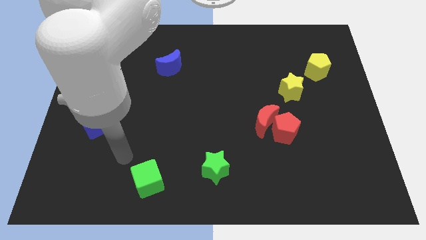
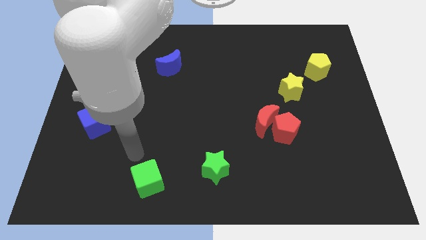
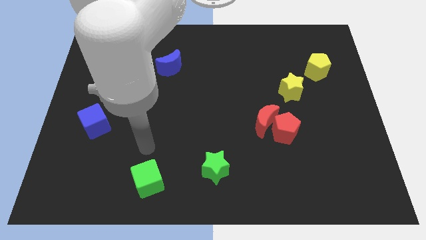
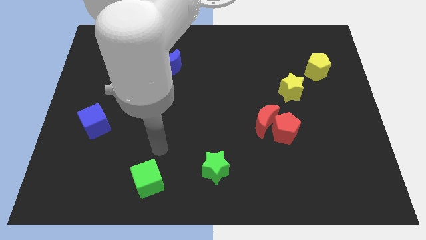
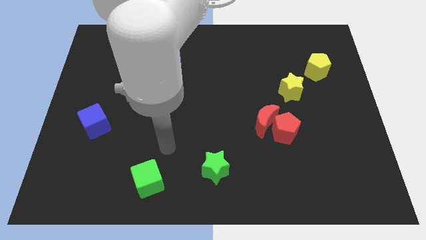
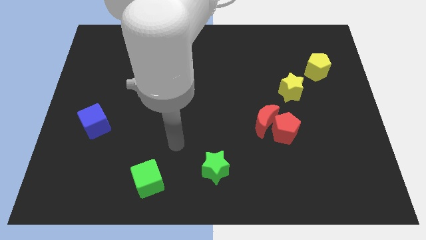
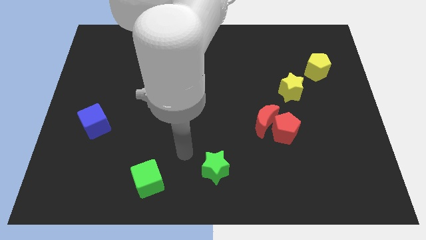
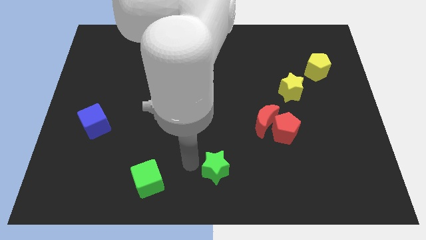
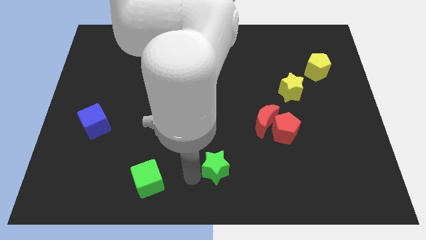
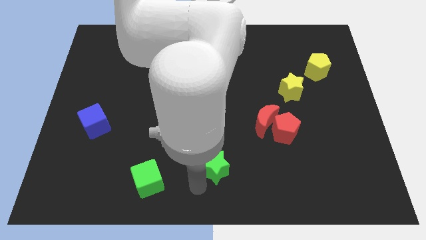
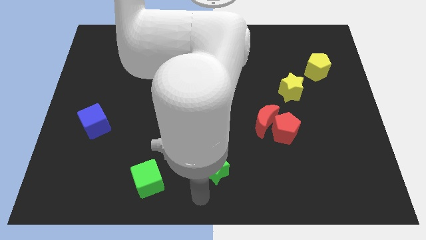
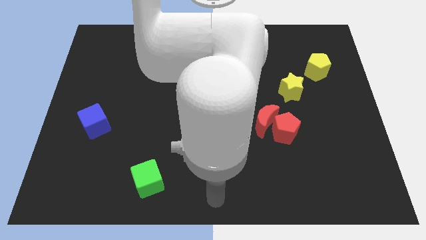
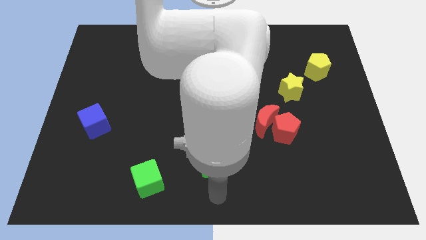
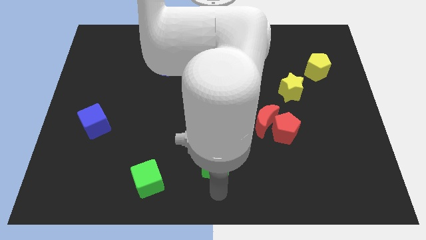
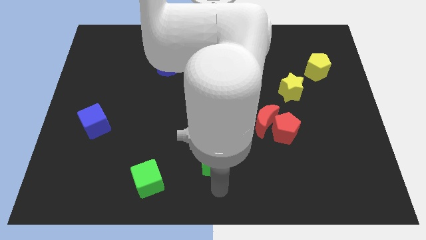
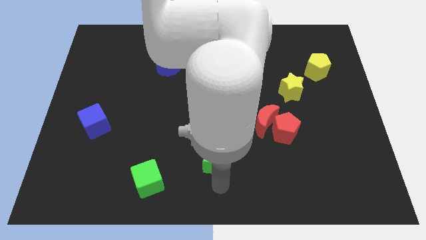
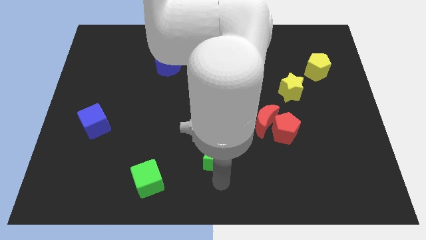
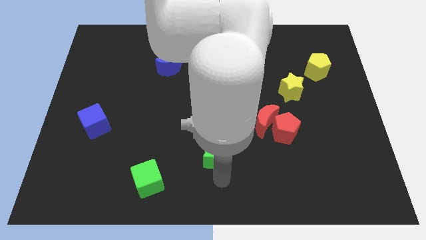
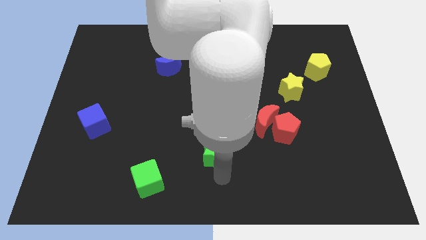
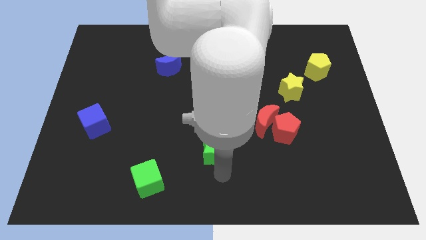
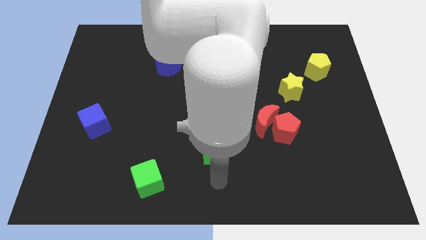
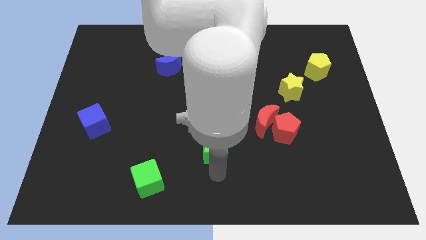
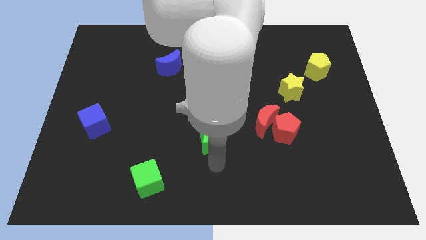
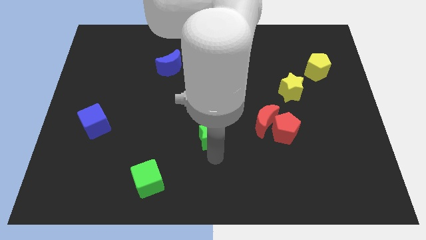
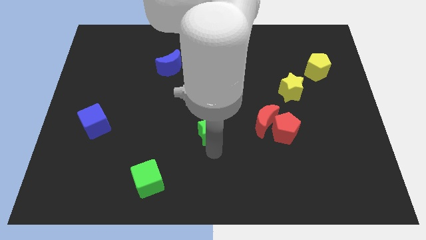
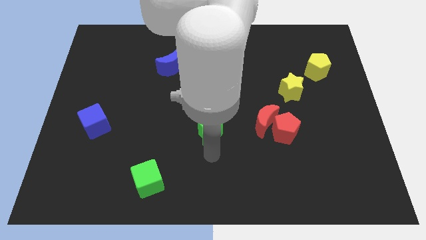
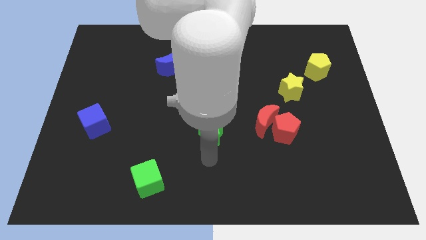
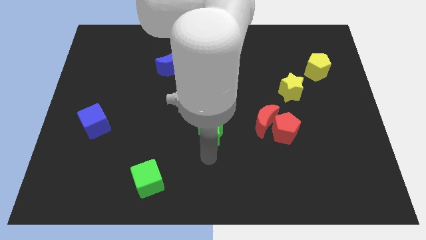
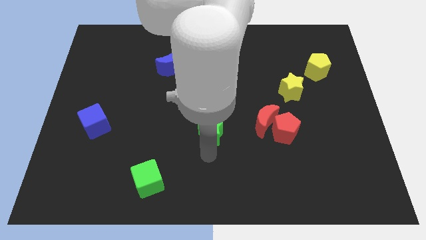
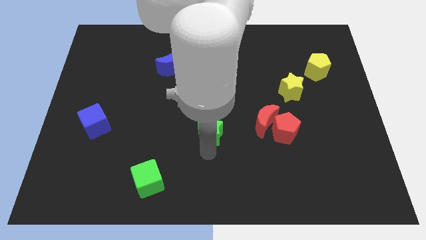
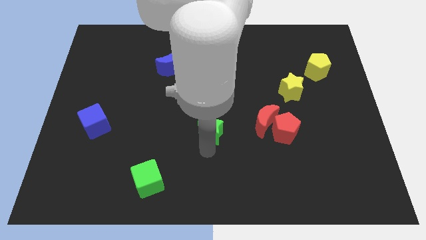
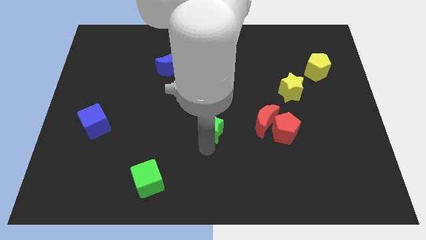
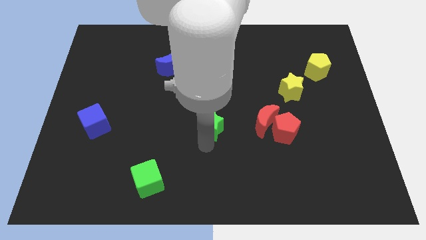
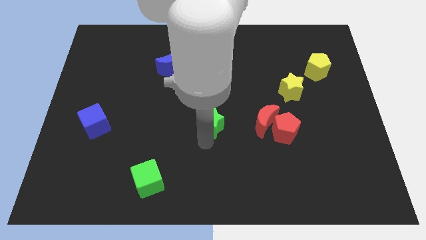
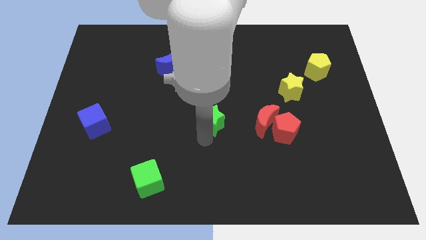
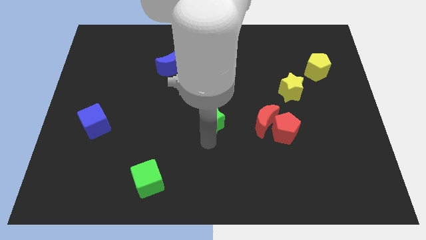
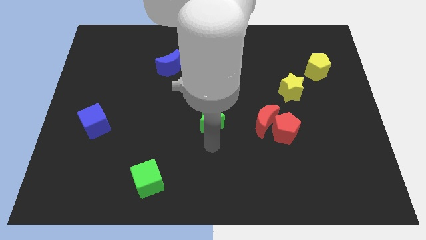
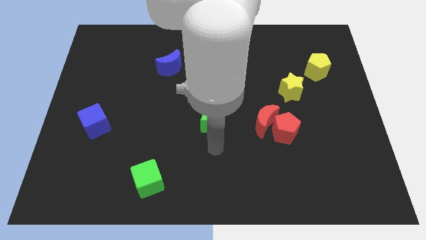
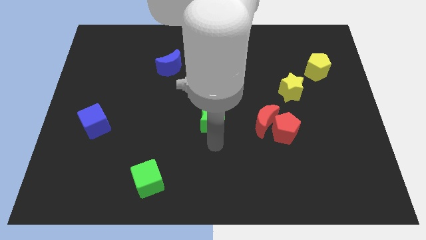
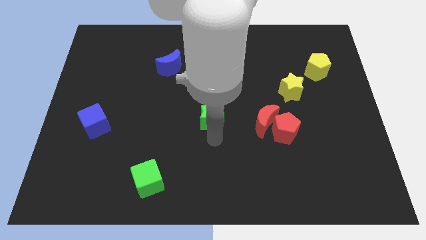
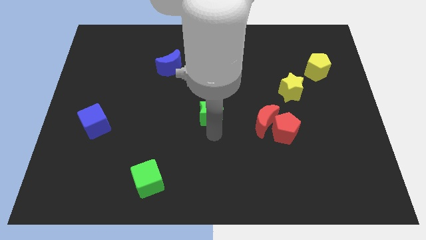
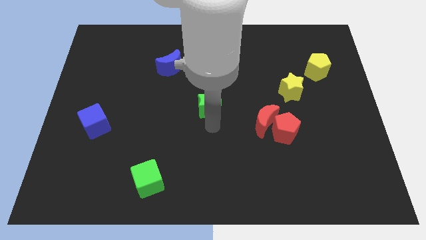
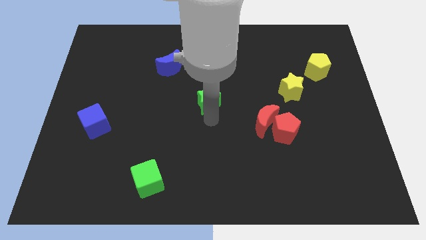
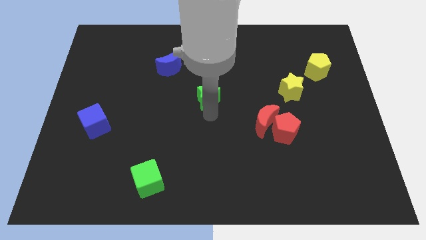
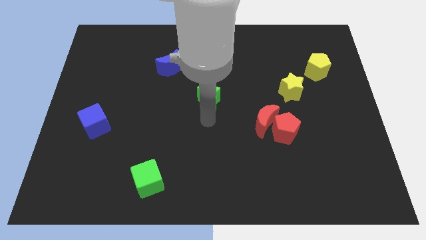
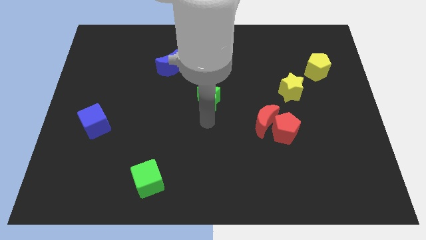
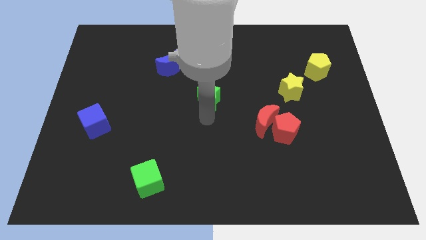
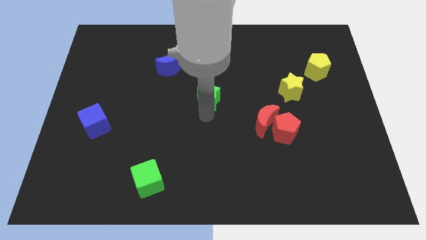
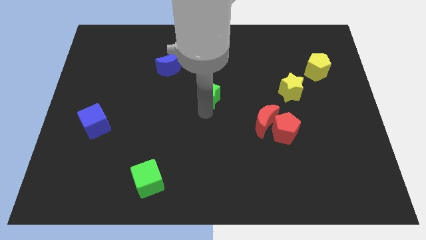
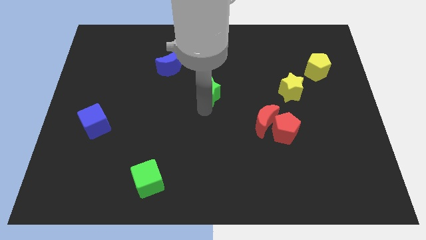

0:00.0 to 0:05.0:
slide the green star up

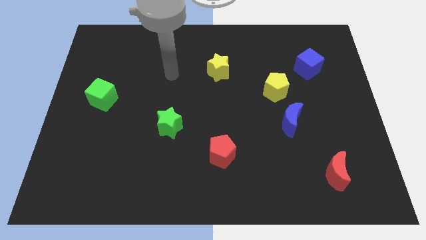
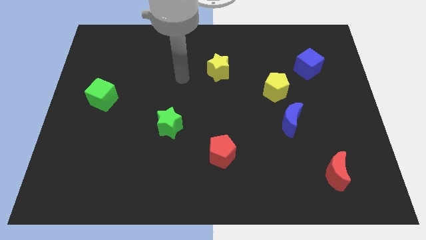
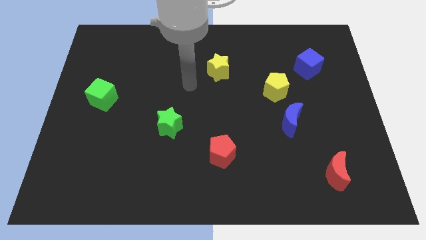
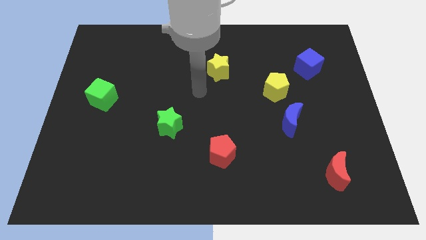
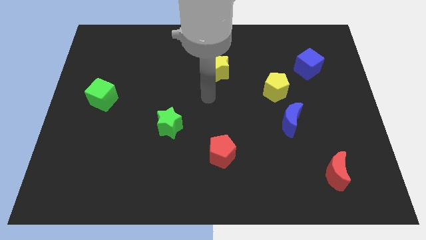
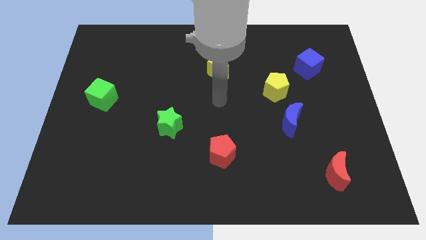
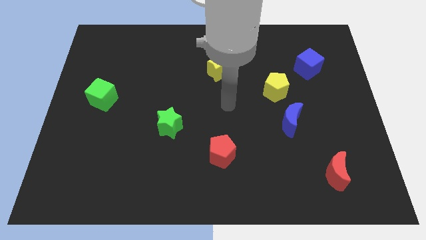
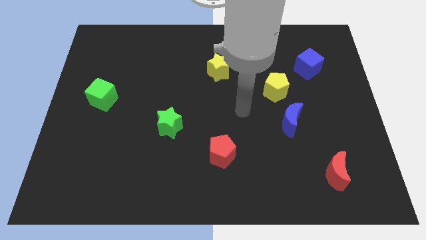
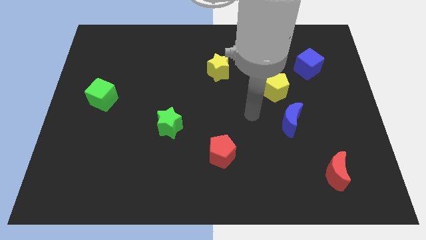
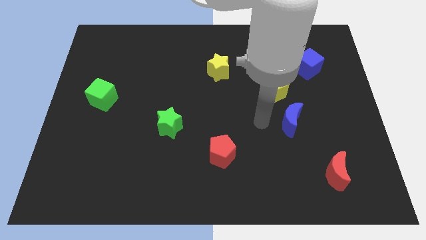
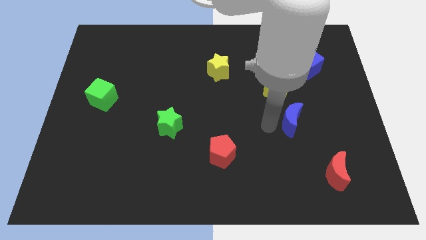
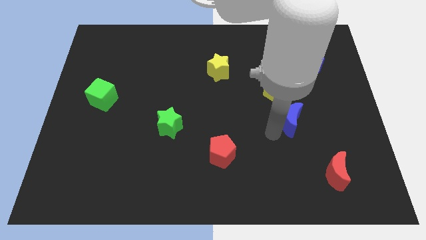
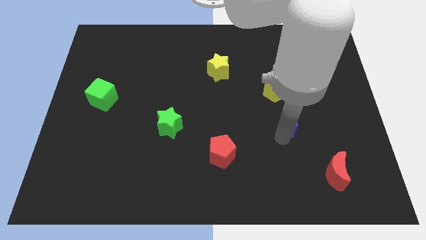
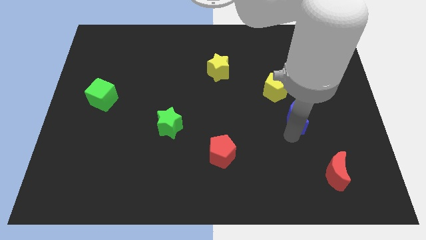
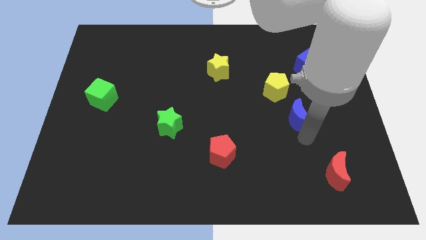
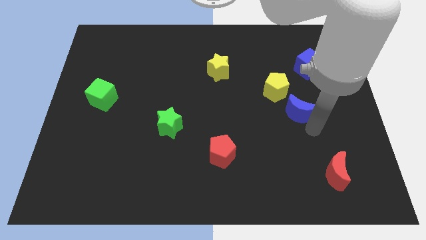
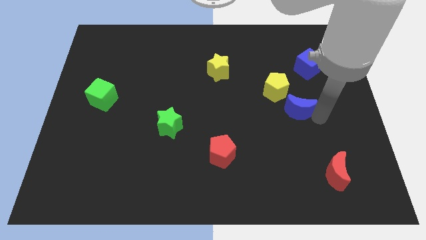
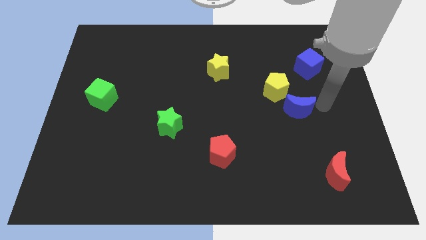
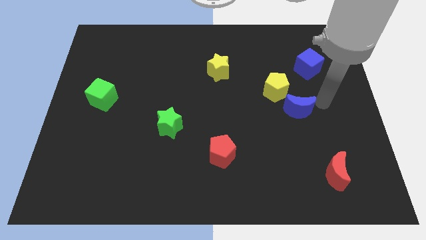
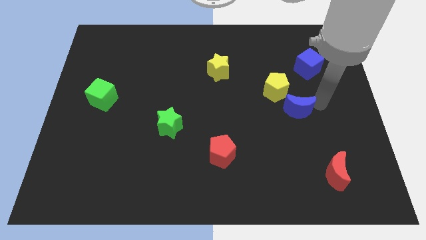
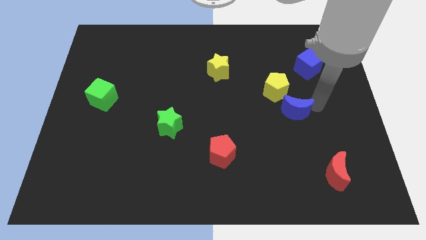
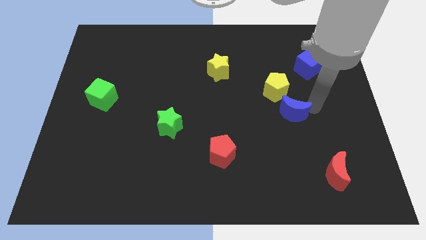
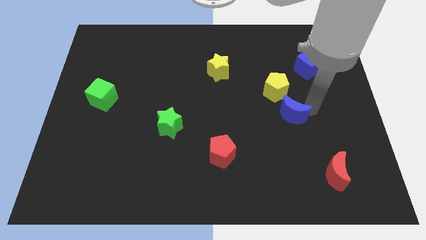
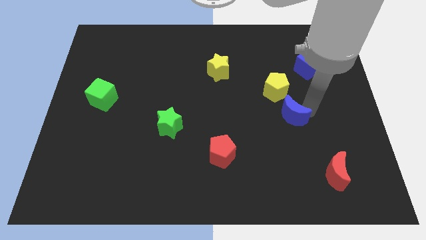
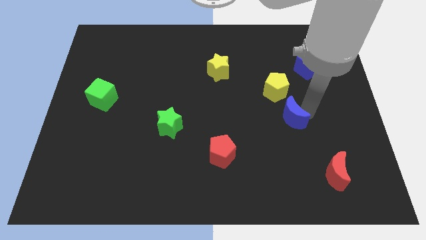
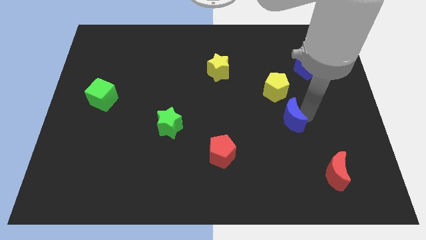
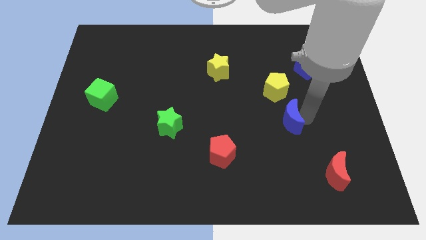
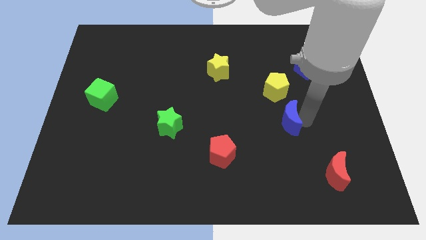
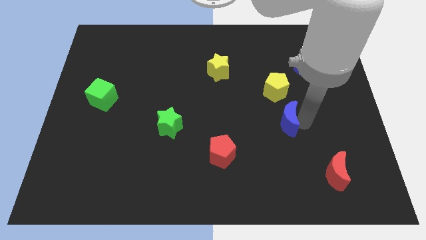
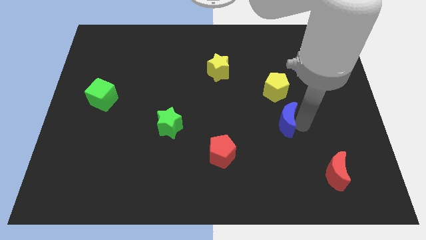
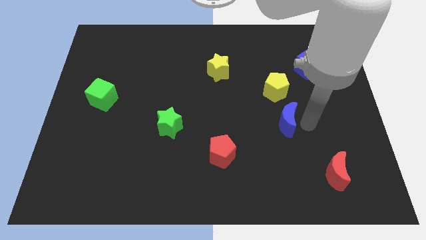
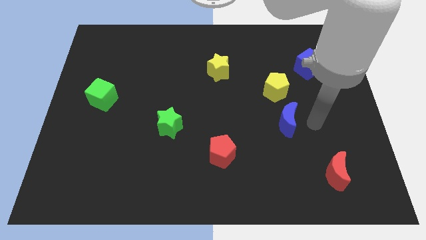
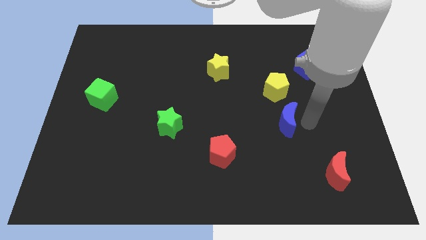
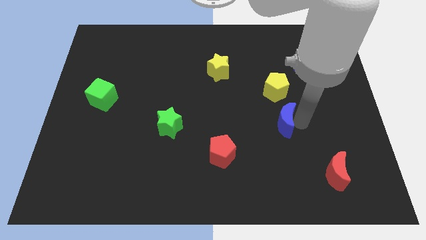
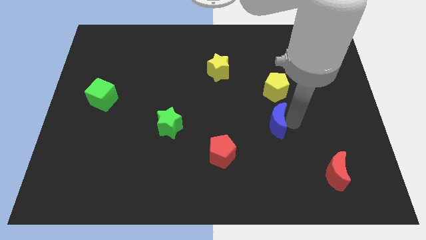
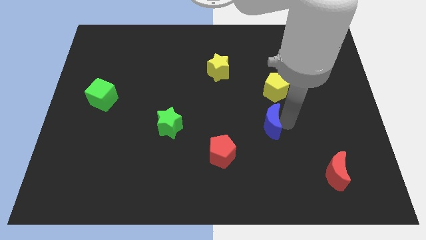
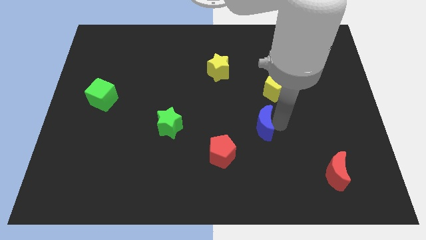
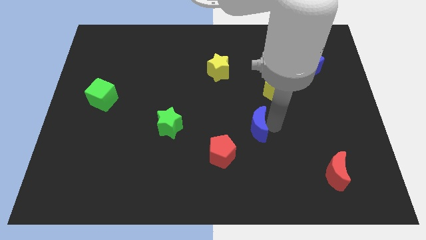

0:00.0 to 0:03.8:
move the blue moon a little to the left
